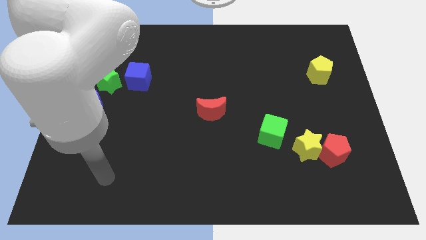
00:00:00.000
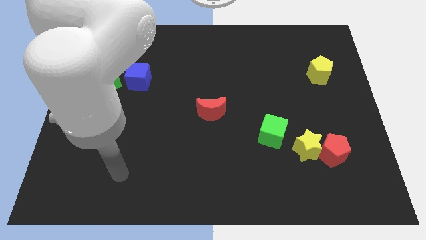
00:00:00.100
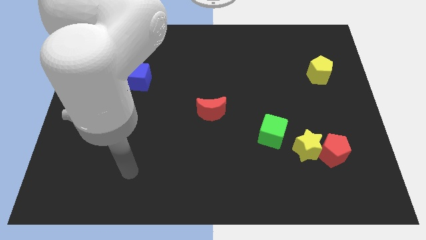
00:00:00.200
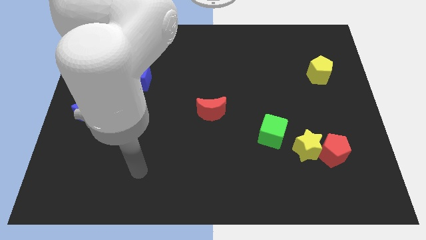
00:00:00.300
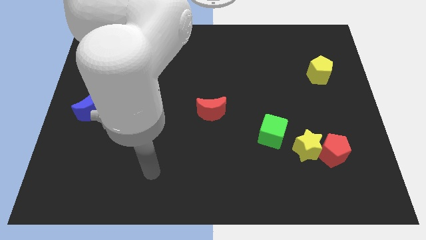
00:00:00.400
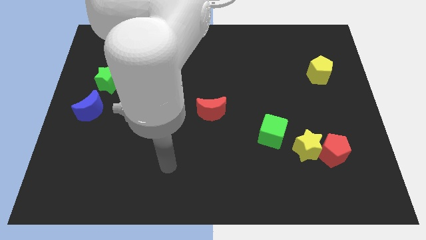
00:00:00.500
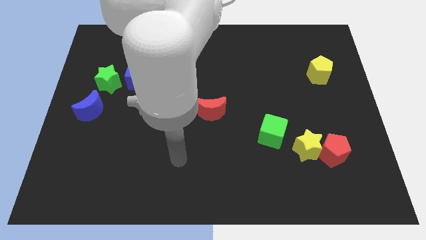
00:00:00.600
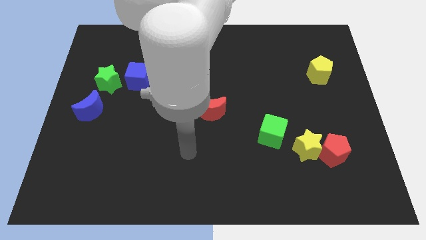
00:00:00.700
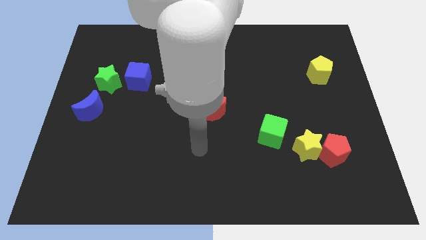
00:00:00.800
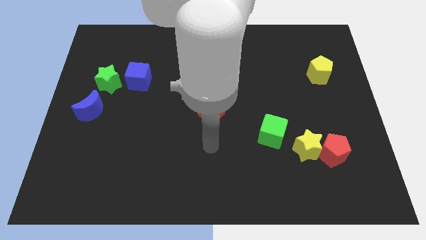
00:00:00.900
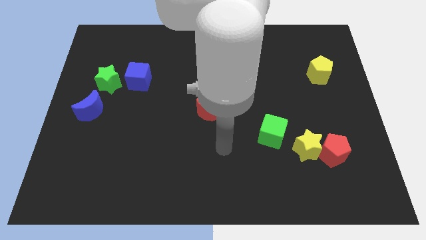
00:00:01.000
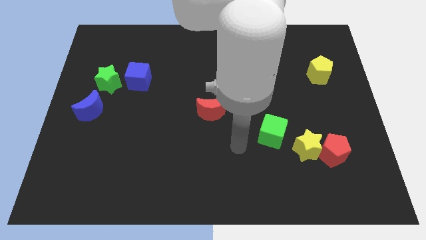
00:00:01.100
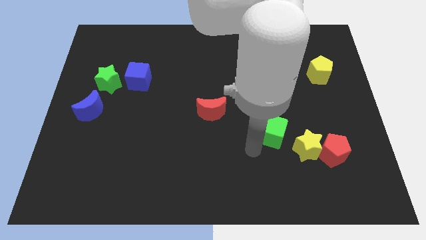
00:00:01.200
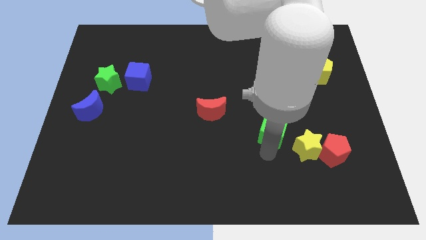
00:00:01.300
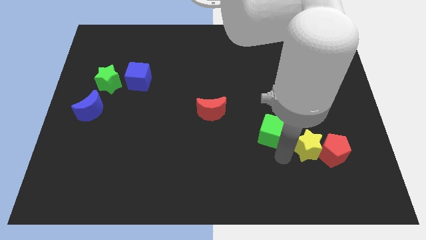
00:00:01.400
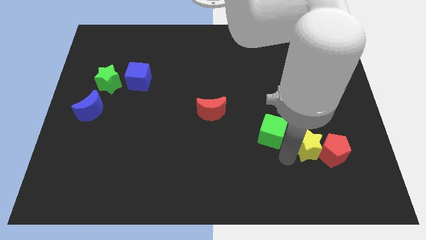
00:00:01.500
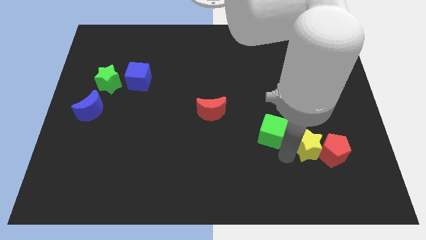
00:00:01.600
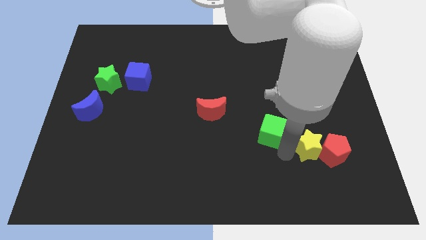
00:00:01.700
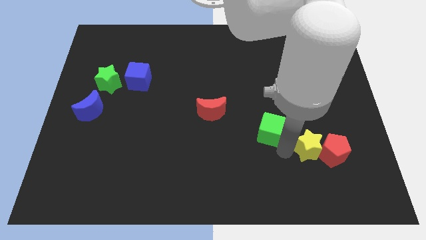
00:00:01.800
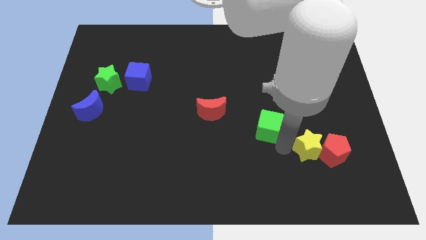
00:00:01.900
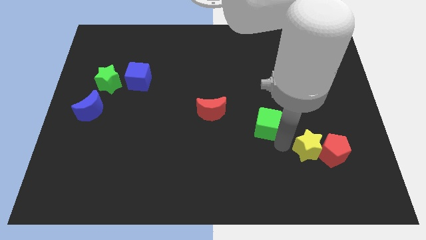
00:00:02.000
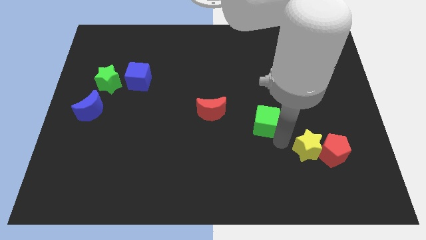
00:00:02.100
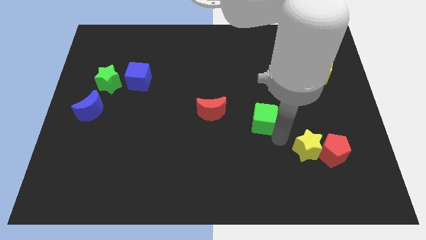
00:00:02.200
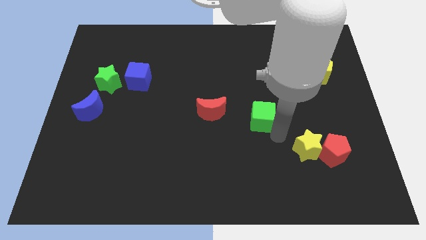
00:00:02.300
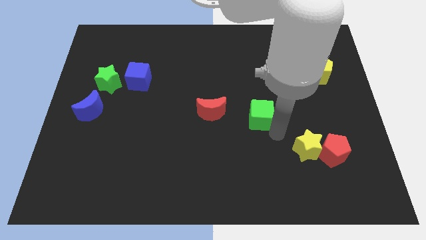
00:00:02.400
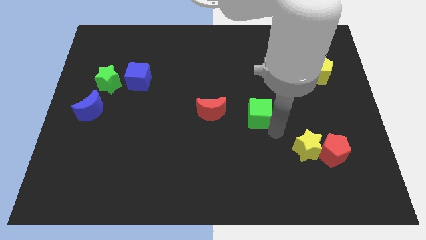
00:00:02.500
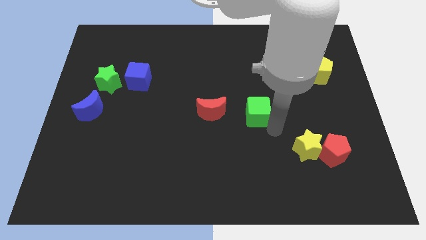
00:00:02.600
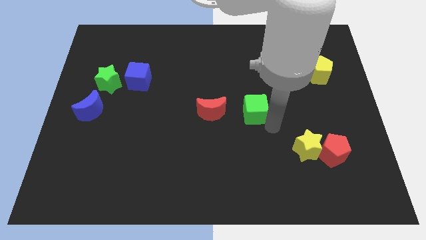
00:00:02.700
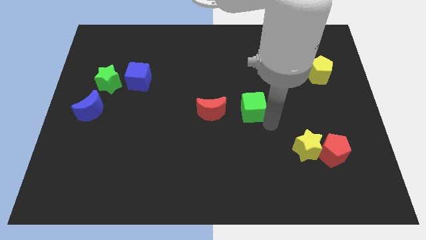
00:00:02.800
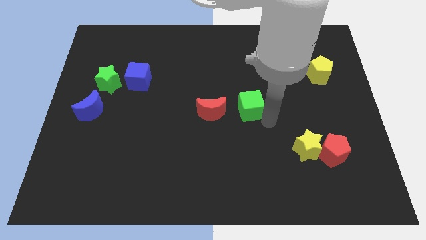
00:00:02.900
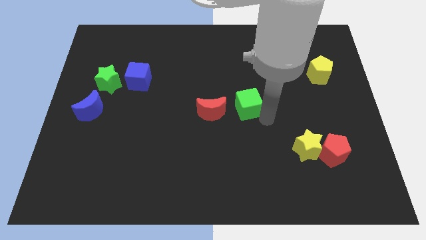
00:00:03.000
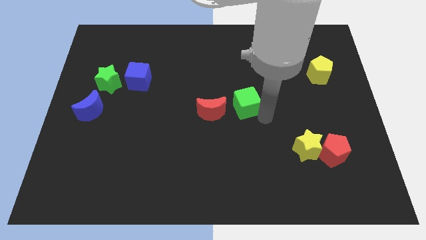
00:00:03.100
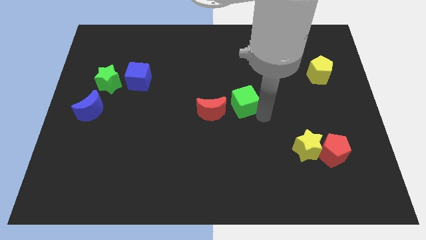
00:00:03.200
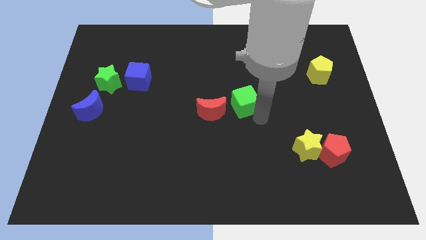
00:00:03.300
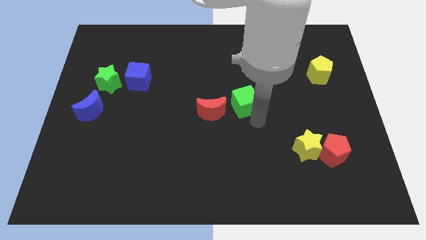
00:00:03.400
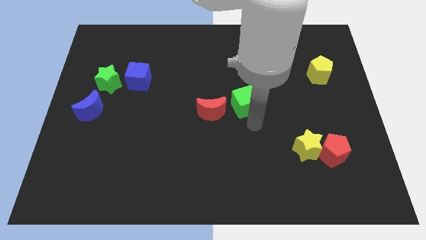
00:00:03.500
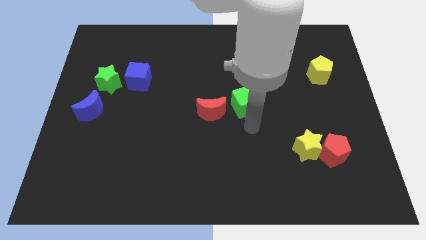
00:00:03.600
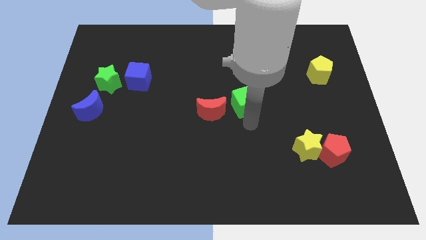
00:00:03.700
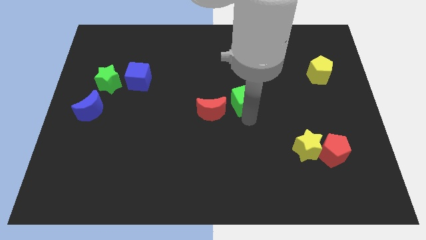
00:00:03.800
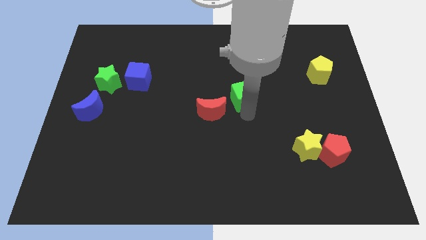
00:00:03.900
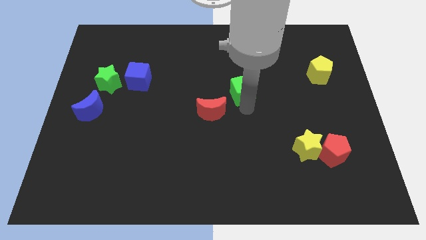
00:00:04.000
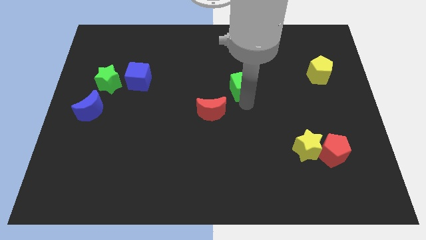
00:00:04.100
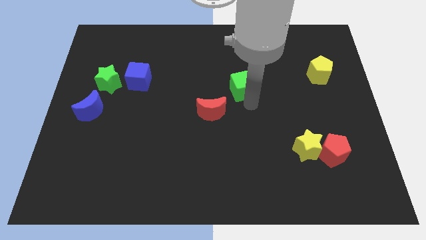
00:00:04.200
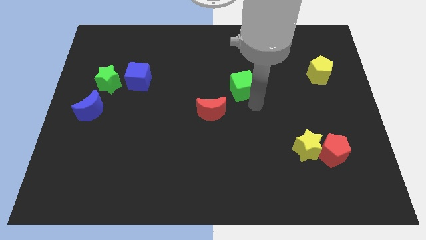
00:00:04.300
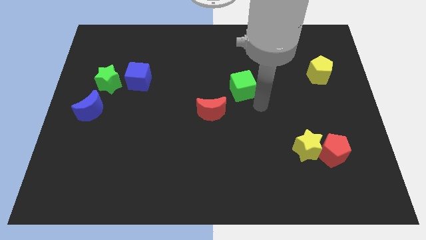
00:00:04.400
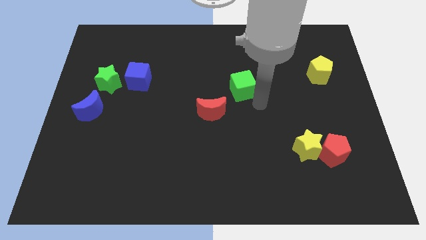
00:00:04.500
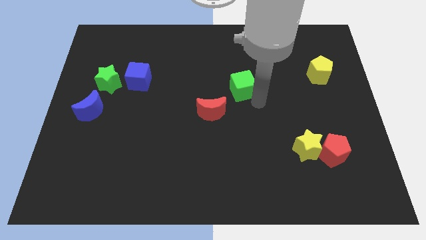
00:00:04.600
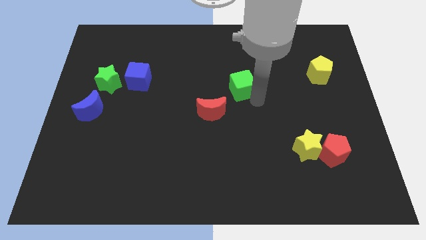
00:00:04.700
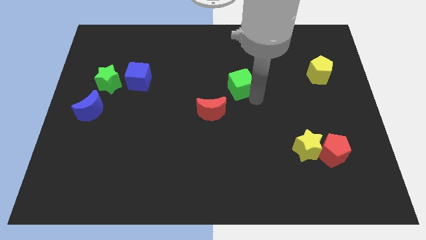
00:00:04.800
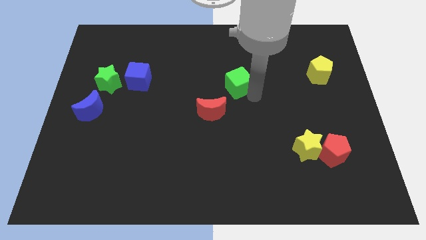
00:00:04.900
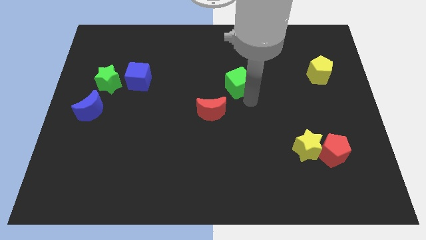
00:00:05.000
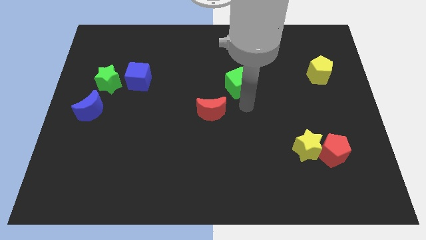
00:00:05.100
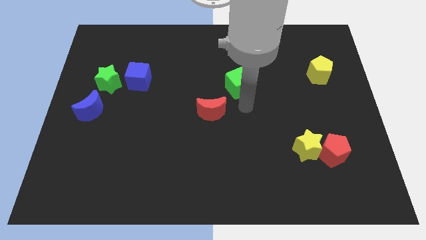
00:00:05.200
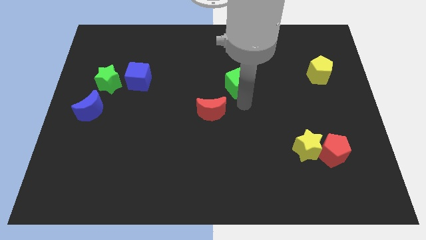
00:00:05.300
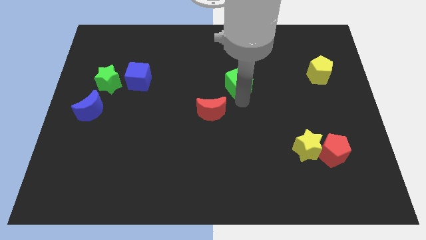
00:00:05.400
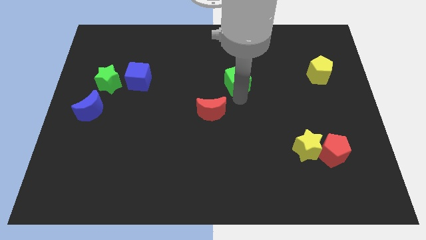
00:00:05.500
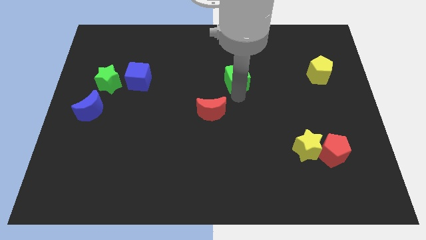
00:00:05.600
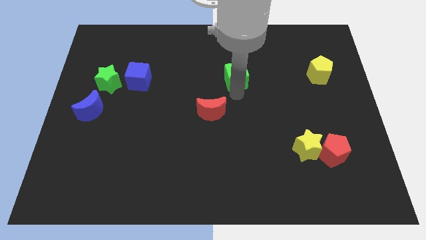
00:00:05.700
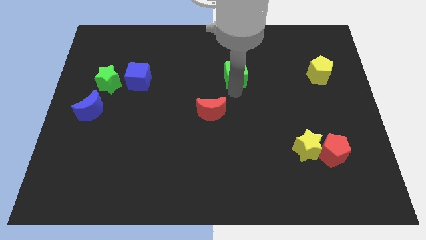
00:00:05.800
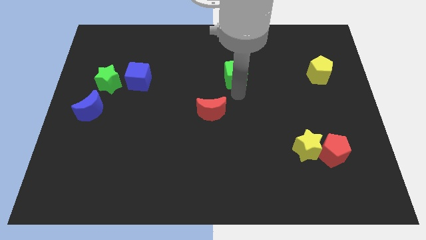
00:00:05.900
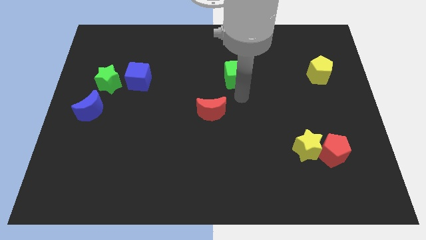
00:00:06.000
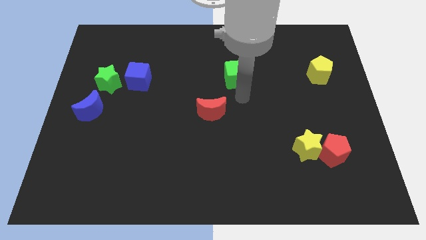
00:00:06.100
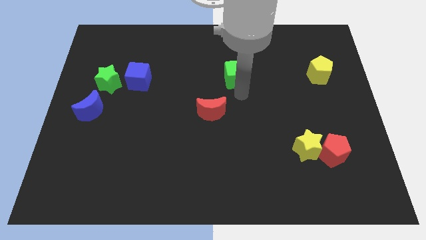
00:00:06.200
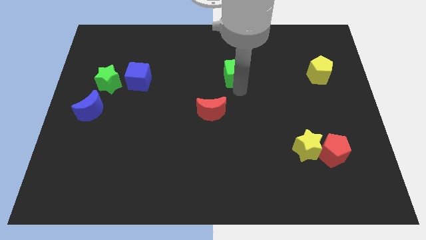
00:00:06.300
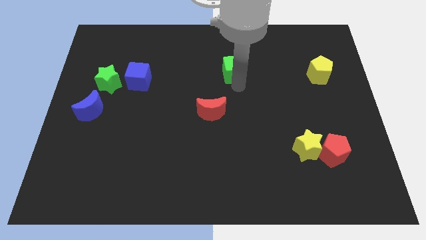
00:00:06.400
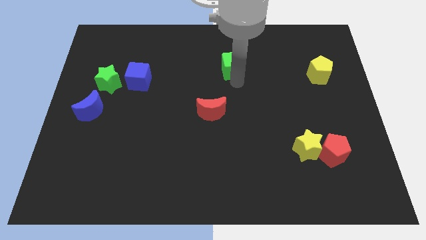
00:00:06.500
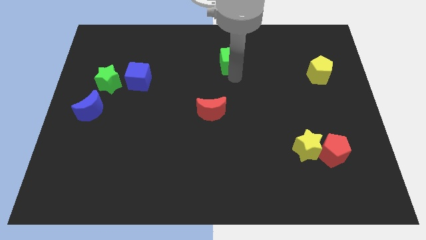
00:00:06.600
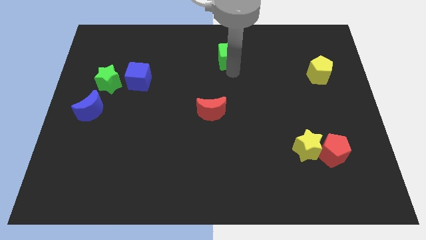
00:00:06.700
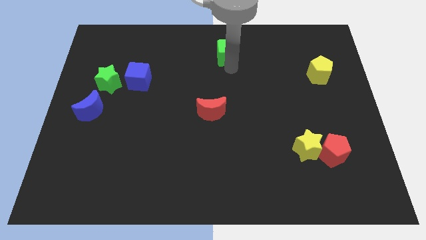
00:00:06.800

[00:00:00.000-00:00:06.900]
put the green cube to the top side

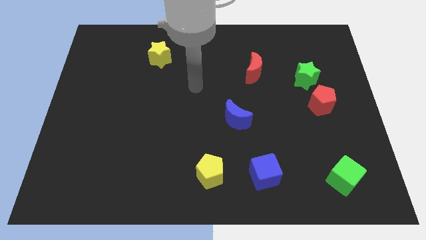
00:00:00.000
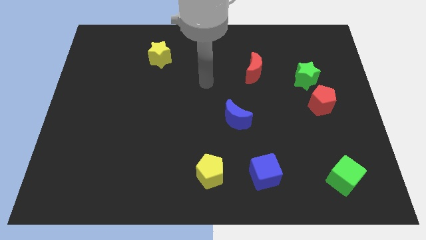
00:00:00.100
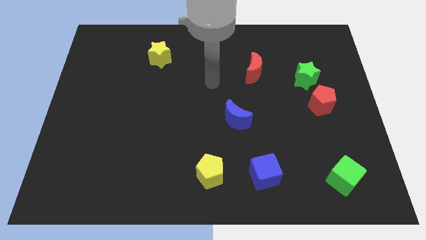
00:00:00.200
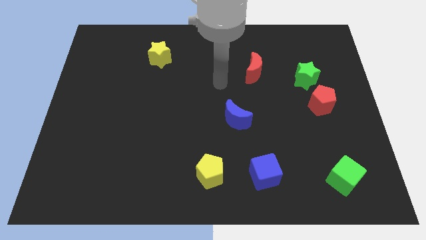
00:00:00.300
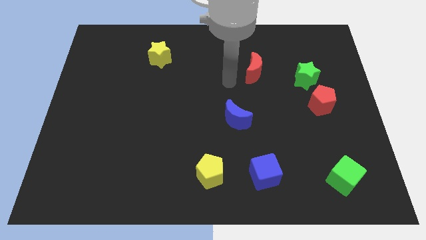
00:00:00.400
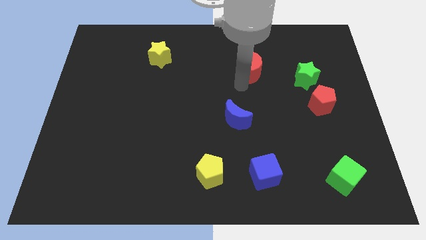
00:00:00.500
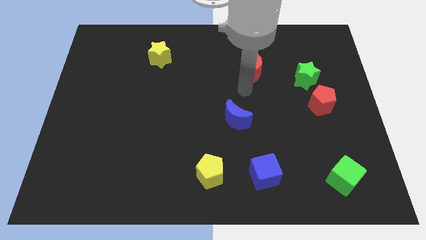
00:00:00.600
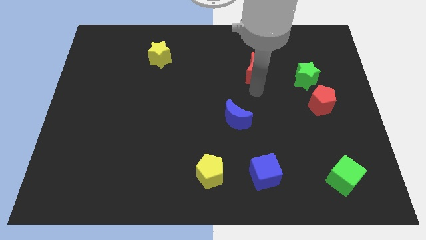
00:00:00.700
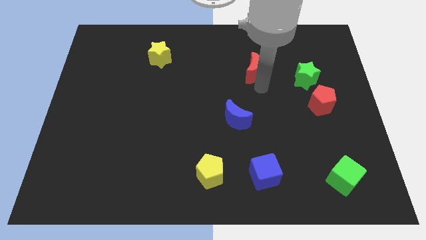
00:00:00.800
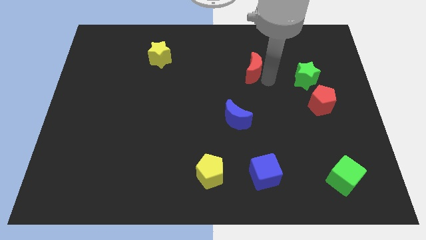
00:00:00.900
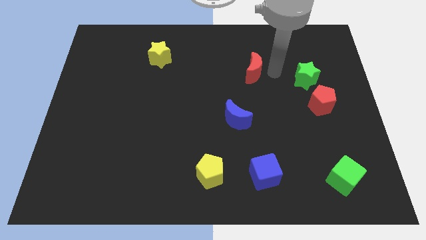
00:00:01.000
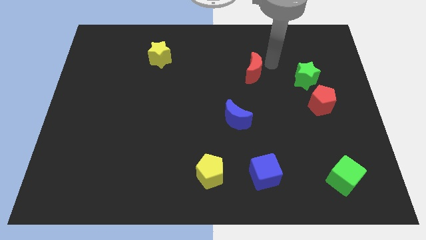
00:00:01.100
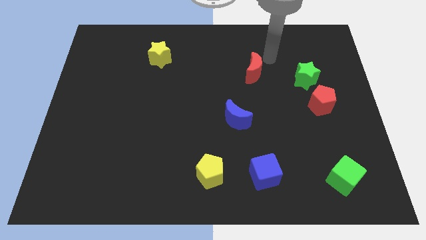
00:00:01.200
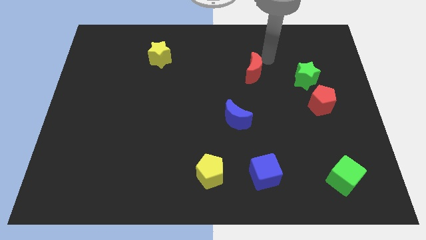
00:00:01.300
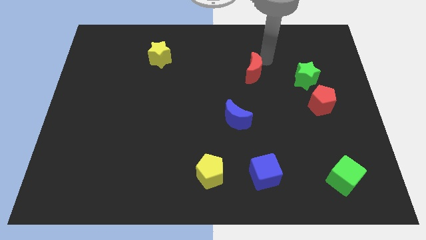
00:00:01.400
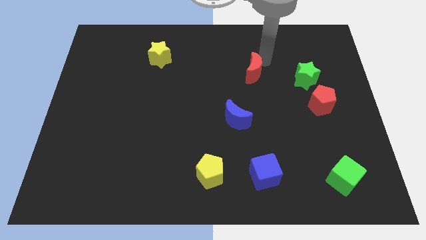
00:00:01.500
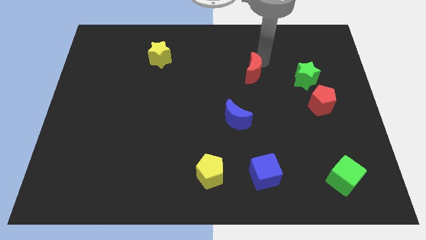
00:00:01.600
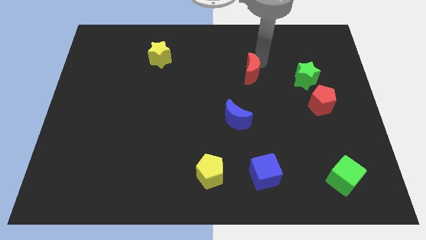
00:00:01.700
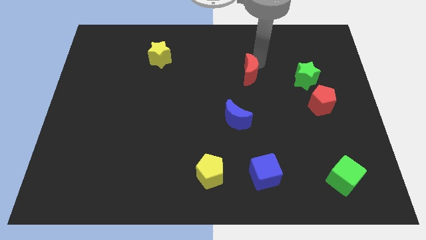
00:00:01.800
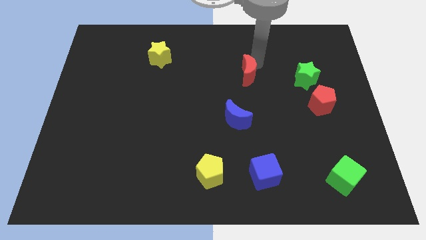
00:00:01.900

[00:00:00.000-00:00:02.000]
push the red moon to the center of the board
